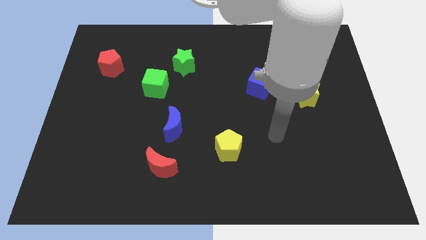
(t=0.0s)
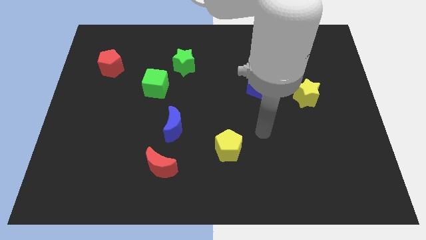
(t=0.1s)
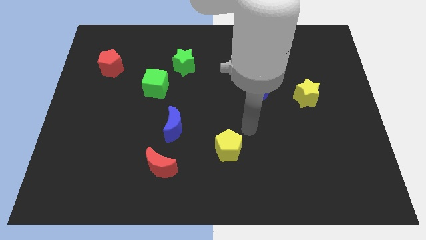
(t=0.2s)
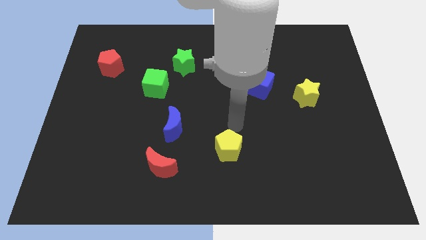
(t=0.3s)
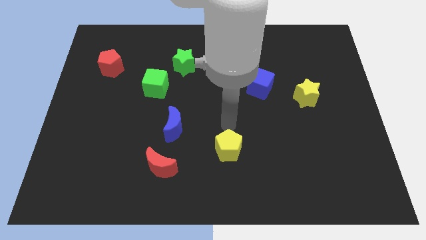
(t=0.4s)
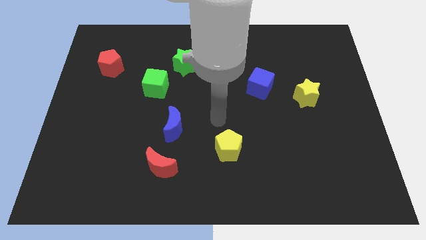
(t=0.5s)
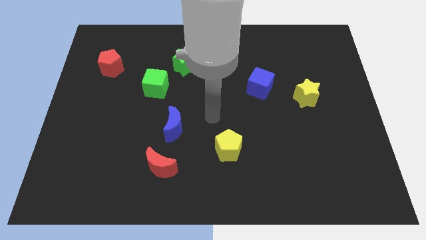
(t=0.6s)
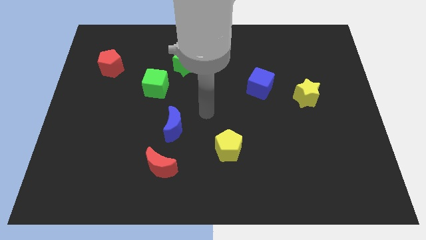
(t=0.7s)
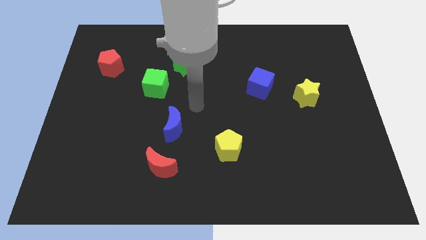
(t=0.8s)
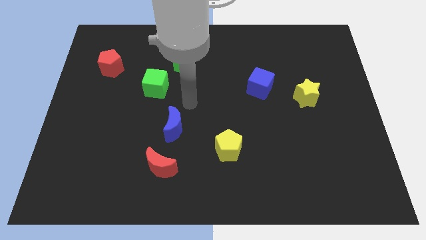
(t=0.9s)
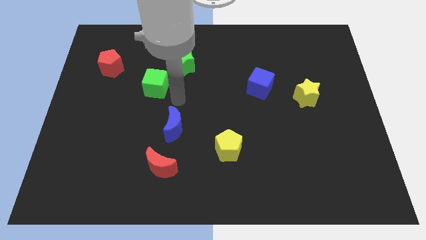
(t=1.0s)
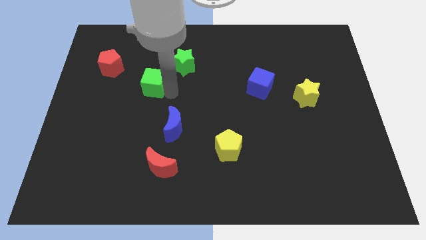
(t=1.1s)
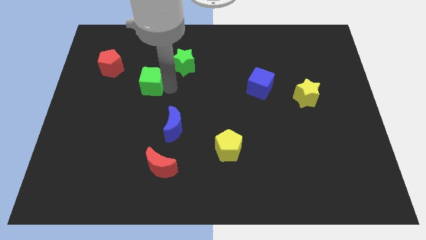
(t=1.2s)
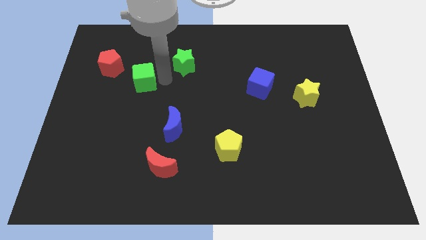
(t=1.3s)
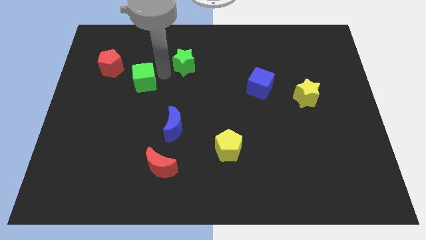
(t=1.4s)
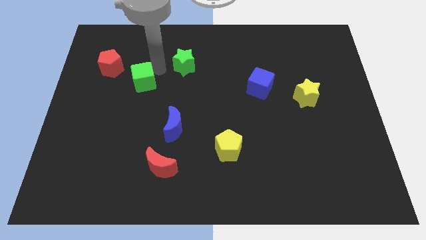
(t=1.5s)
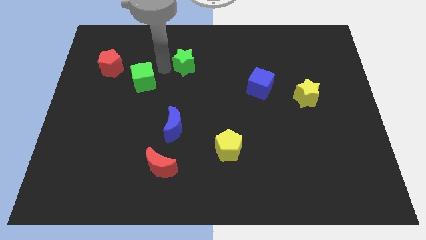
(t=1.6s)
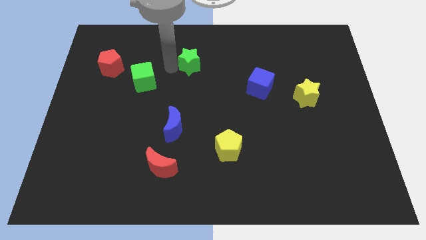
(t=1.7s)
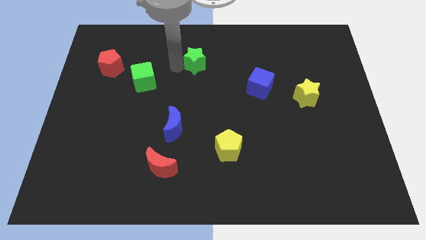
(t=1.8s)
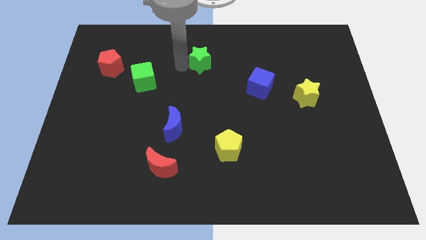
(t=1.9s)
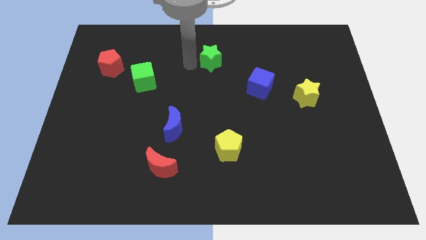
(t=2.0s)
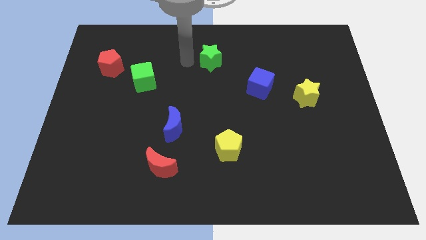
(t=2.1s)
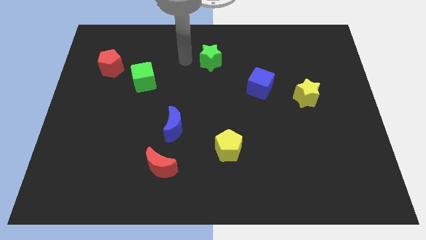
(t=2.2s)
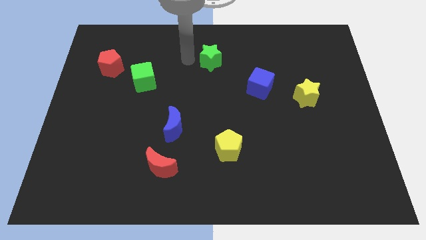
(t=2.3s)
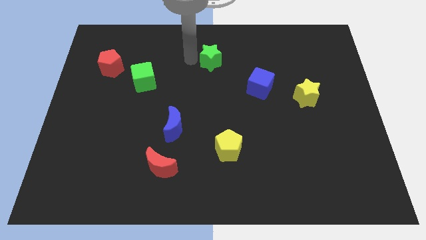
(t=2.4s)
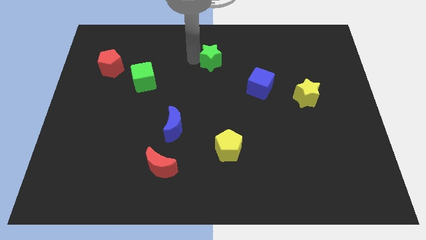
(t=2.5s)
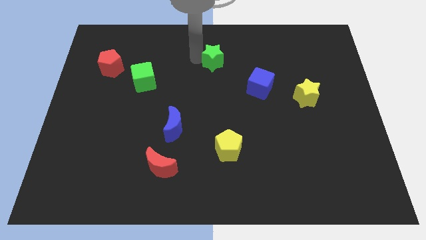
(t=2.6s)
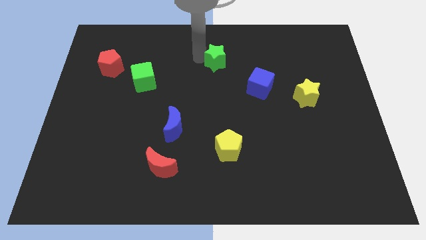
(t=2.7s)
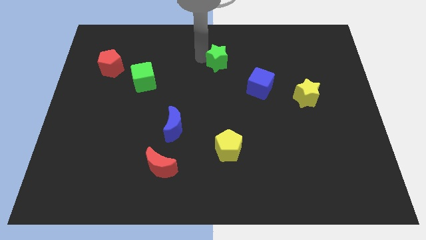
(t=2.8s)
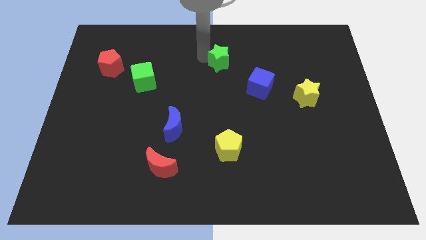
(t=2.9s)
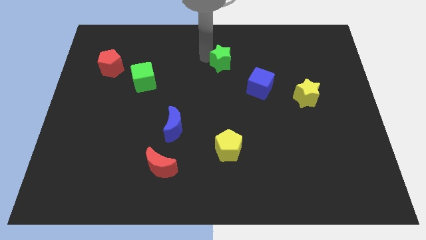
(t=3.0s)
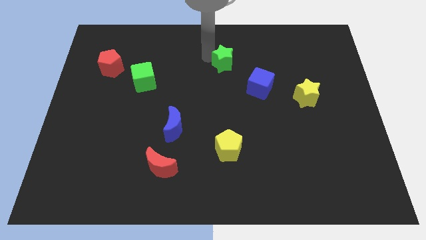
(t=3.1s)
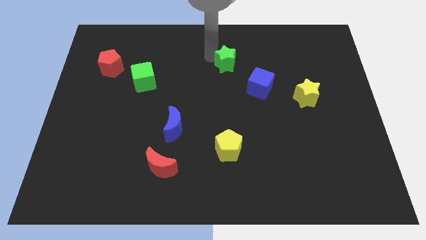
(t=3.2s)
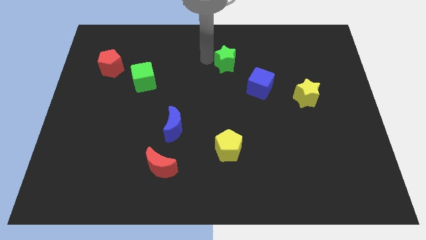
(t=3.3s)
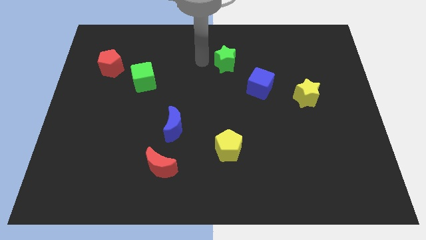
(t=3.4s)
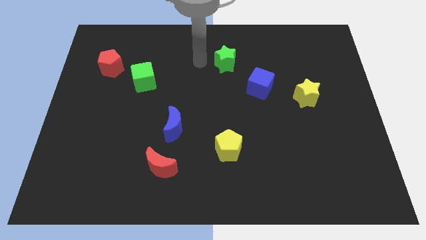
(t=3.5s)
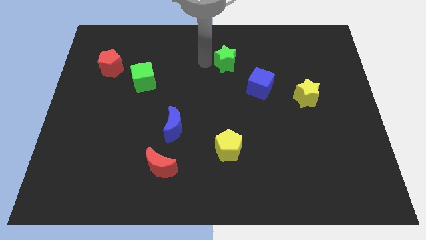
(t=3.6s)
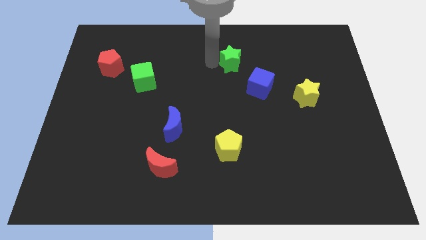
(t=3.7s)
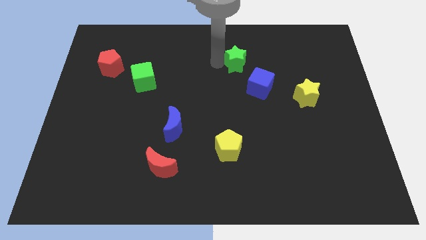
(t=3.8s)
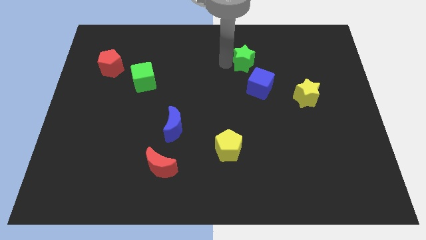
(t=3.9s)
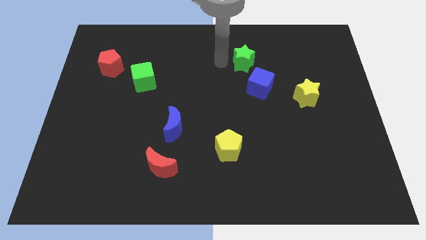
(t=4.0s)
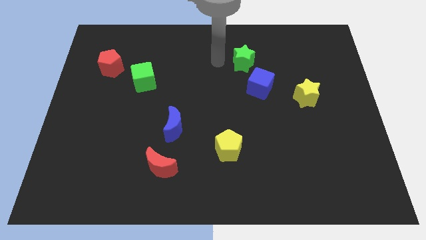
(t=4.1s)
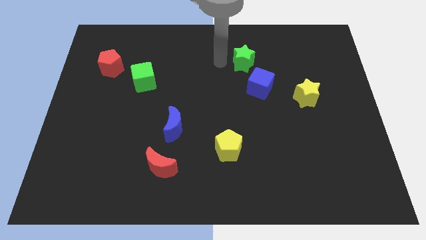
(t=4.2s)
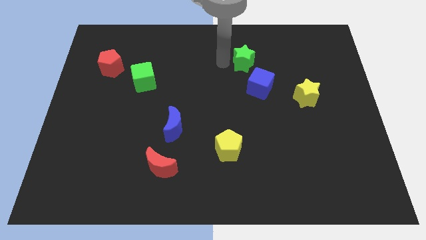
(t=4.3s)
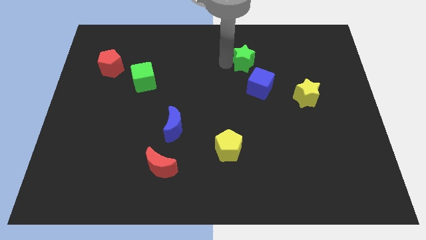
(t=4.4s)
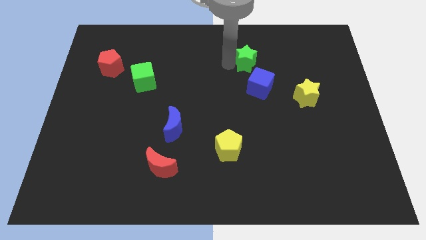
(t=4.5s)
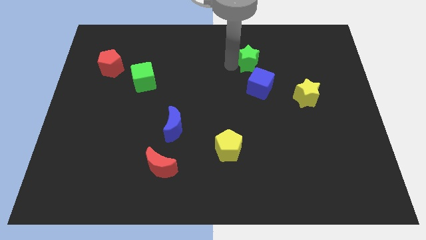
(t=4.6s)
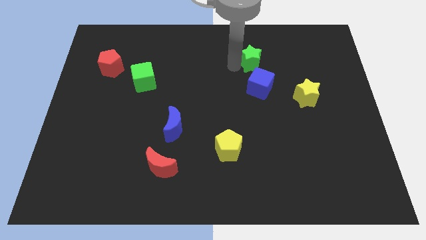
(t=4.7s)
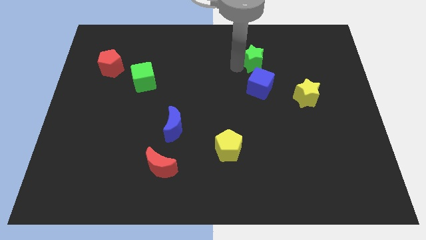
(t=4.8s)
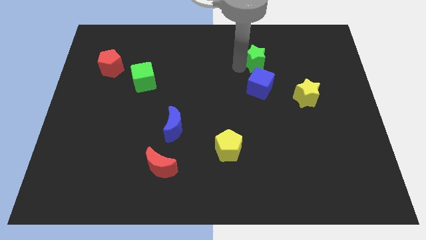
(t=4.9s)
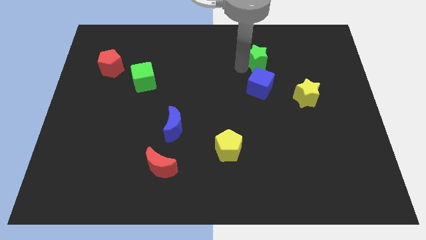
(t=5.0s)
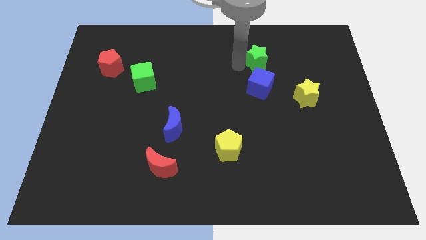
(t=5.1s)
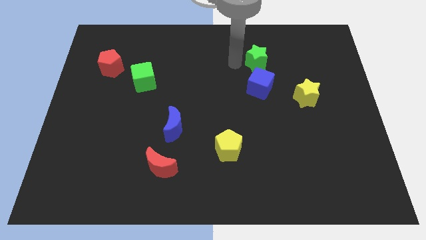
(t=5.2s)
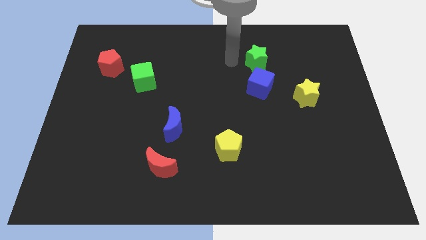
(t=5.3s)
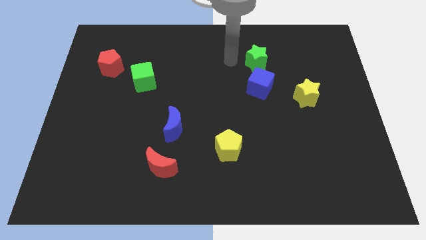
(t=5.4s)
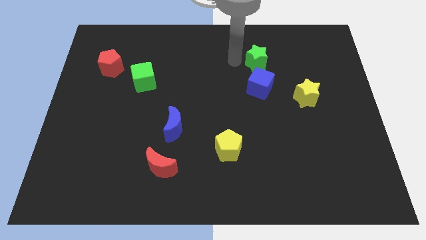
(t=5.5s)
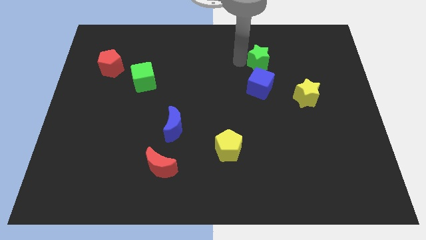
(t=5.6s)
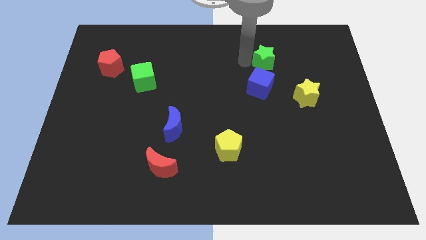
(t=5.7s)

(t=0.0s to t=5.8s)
move the green star to the right

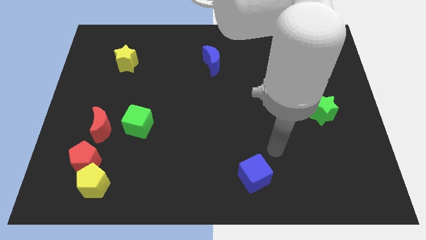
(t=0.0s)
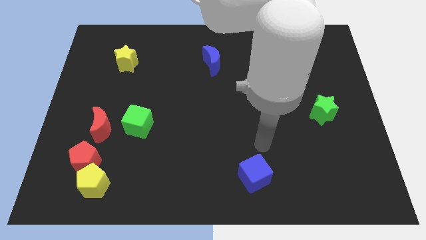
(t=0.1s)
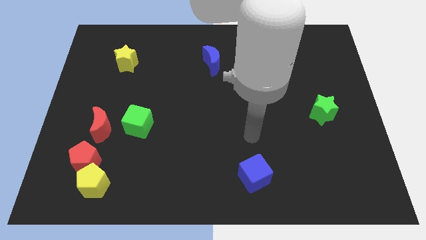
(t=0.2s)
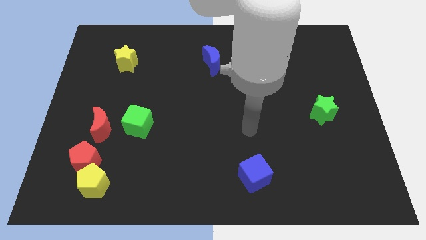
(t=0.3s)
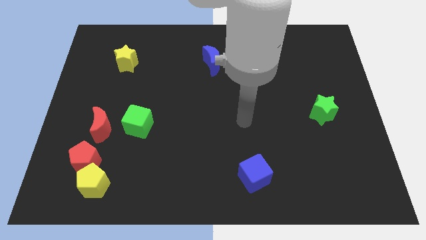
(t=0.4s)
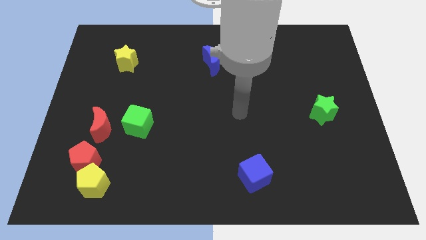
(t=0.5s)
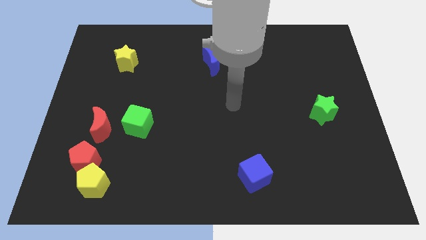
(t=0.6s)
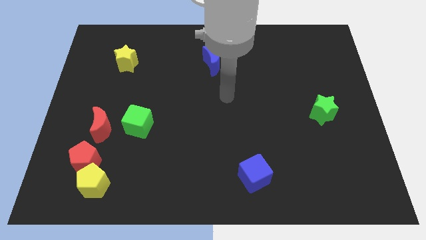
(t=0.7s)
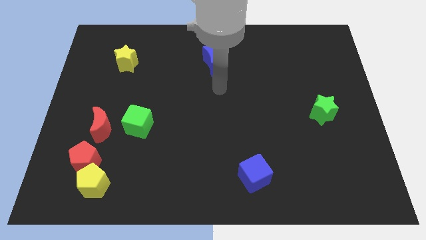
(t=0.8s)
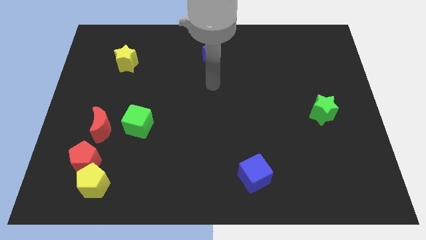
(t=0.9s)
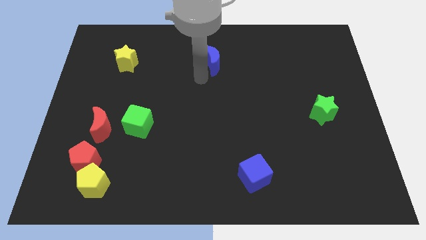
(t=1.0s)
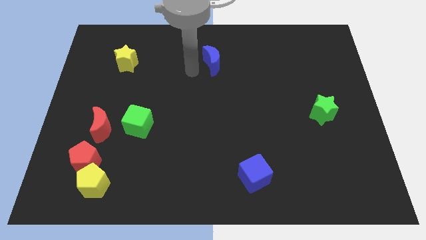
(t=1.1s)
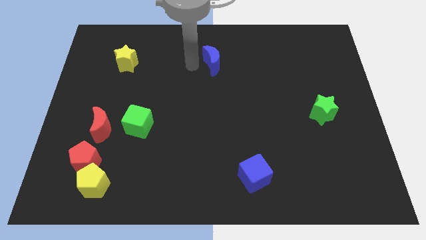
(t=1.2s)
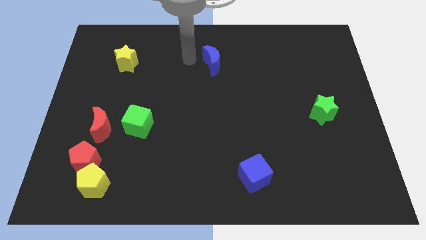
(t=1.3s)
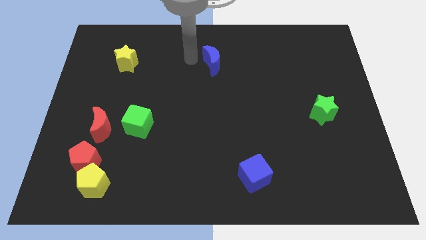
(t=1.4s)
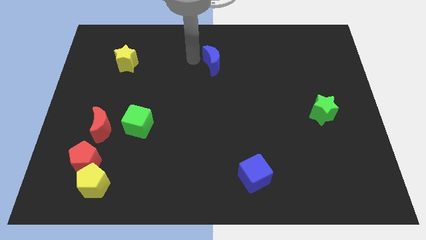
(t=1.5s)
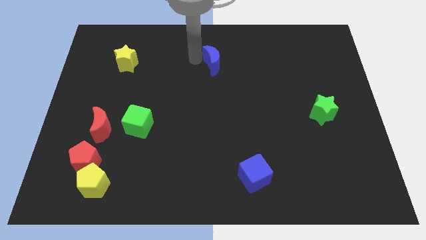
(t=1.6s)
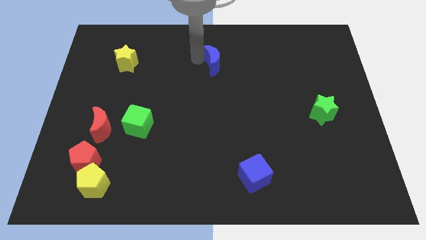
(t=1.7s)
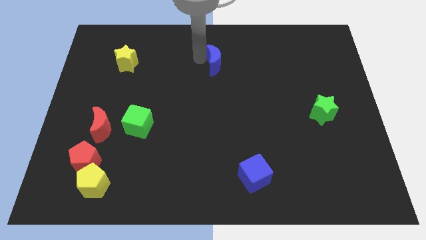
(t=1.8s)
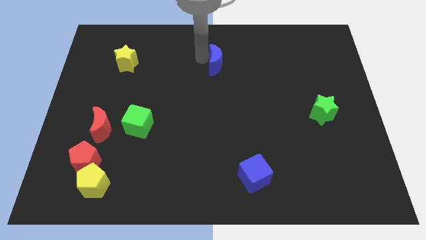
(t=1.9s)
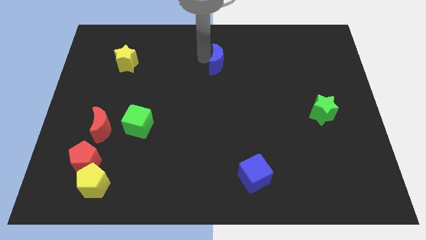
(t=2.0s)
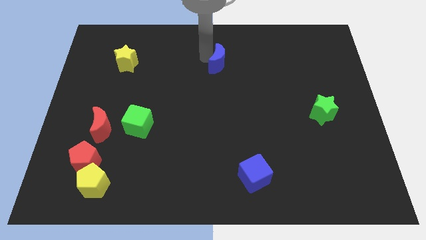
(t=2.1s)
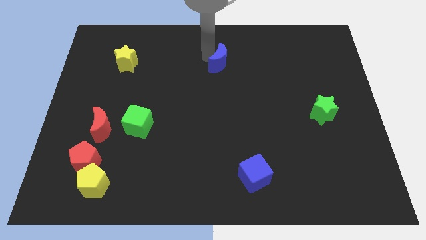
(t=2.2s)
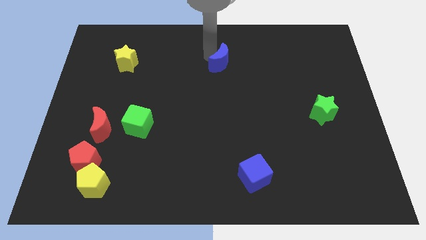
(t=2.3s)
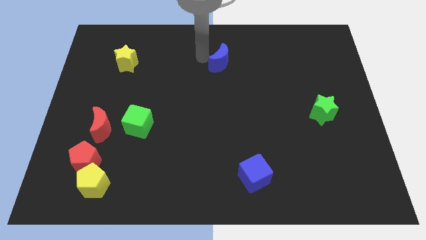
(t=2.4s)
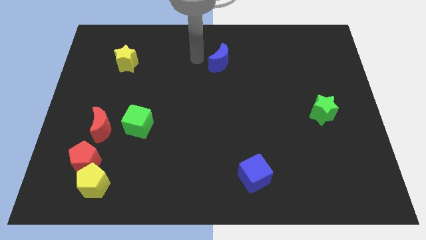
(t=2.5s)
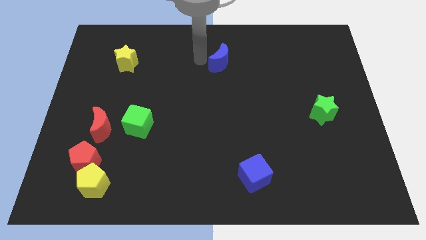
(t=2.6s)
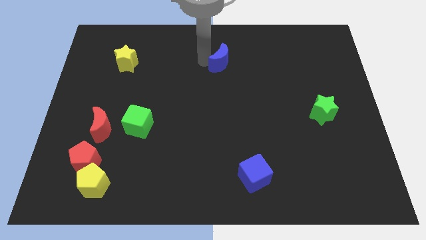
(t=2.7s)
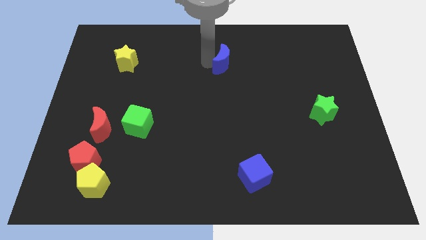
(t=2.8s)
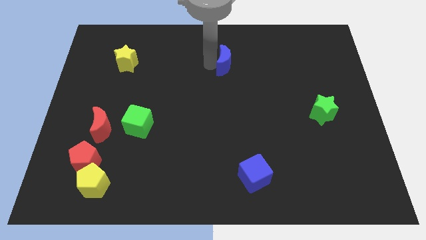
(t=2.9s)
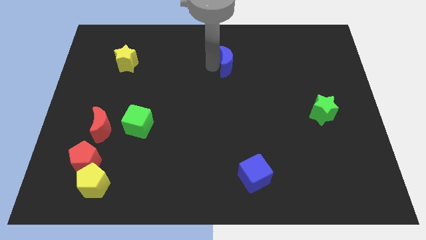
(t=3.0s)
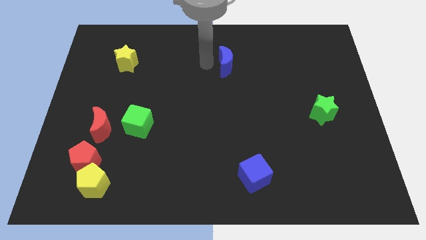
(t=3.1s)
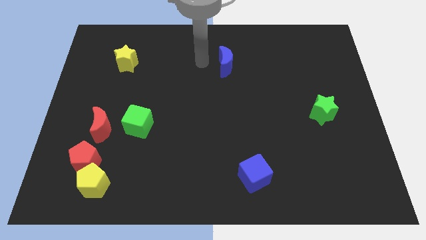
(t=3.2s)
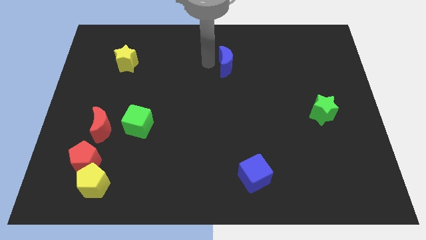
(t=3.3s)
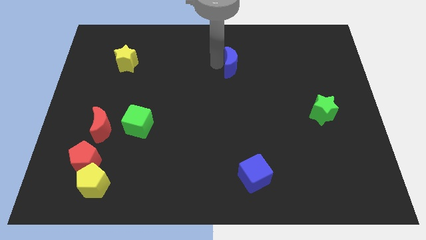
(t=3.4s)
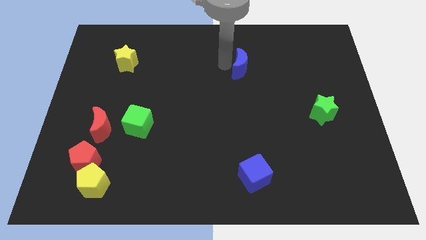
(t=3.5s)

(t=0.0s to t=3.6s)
slightly push the blue moon right
